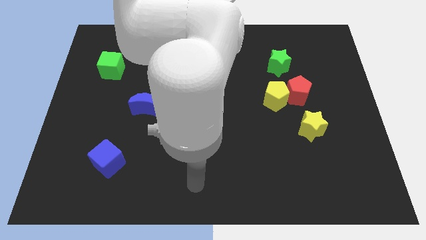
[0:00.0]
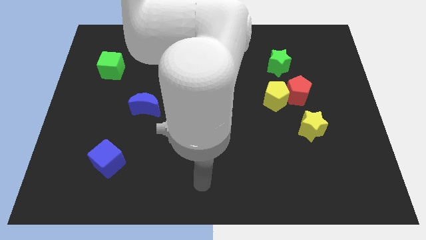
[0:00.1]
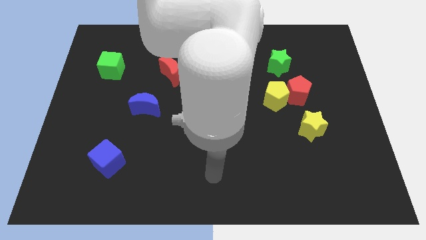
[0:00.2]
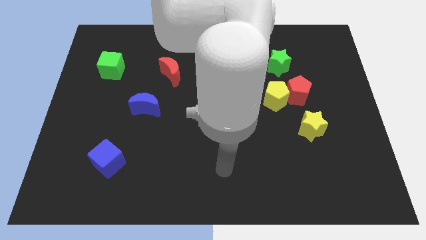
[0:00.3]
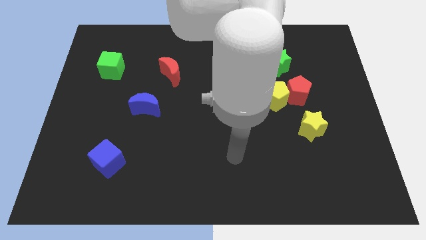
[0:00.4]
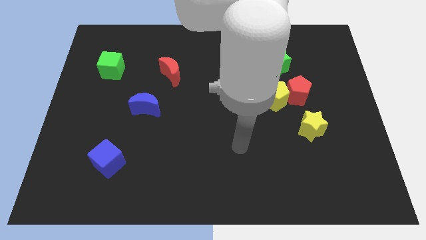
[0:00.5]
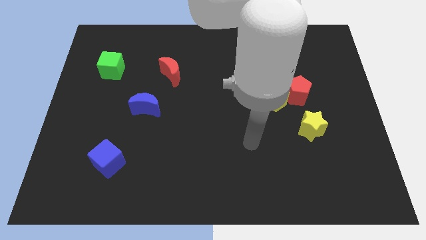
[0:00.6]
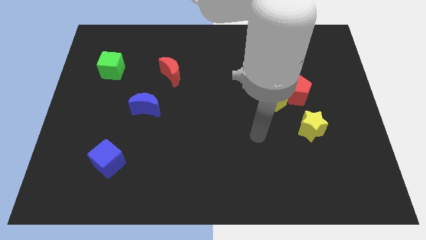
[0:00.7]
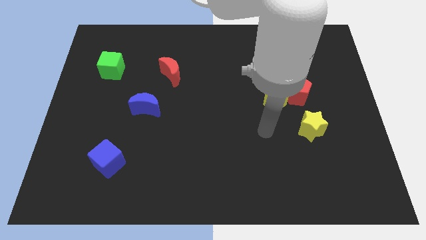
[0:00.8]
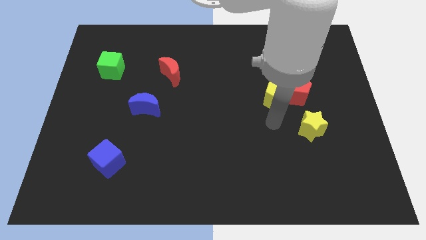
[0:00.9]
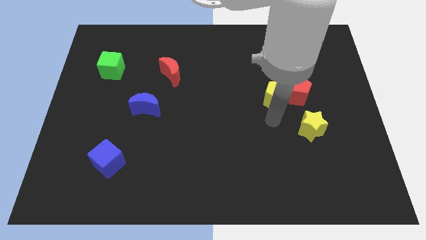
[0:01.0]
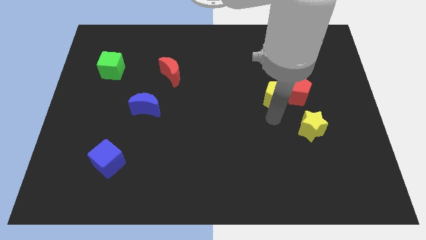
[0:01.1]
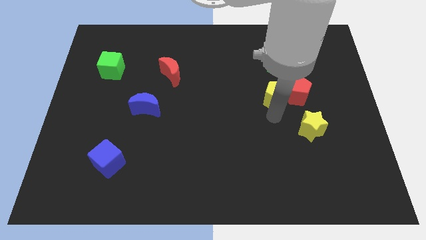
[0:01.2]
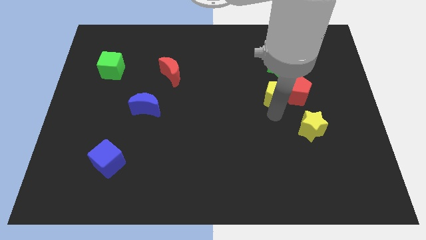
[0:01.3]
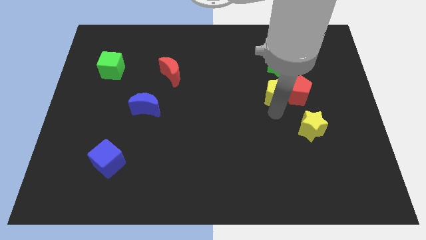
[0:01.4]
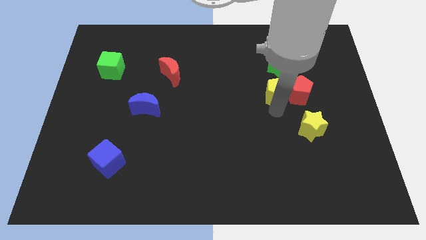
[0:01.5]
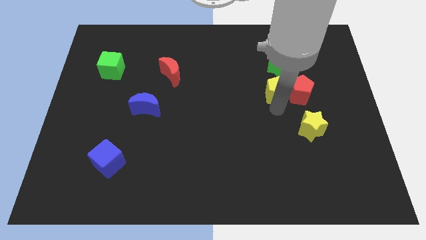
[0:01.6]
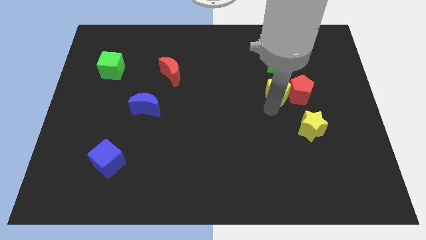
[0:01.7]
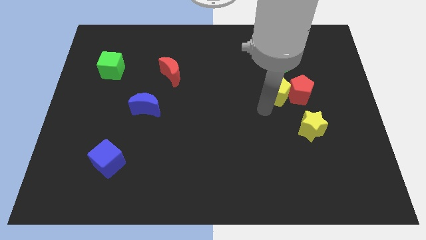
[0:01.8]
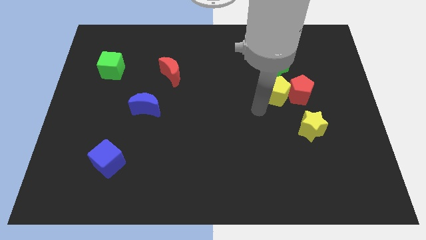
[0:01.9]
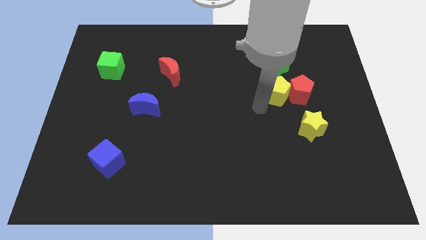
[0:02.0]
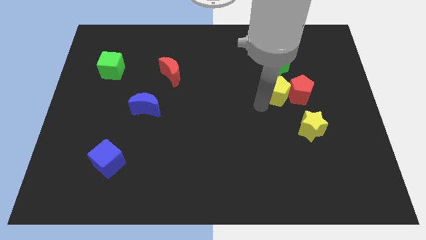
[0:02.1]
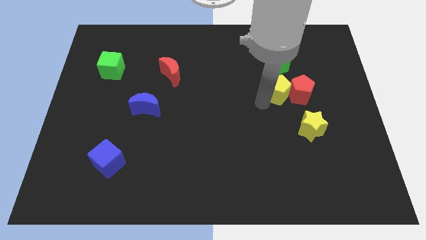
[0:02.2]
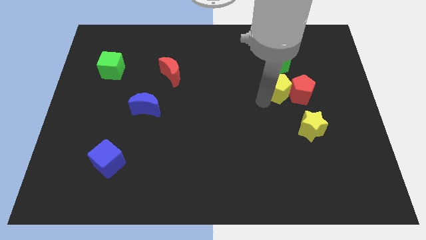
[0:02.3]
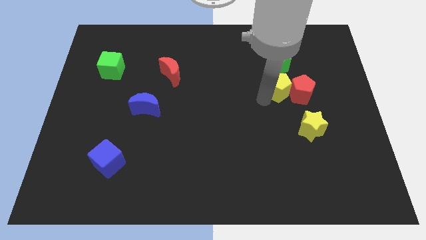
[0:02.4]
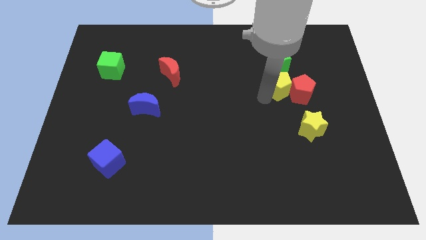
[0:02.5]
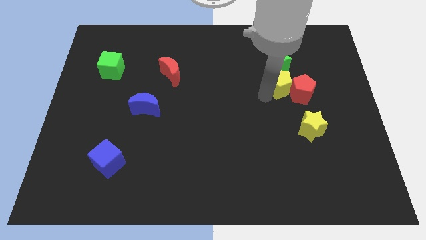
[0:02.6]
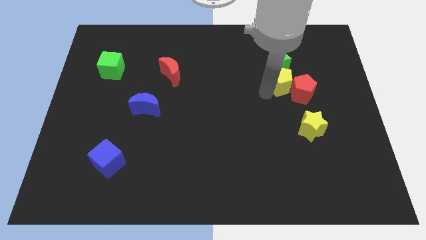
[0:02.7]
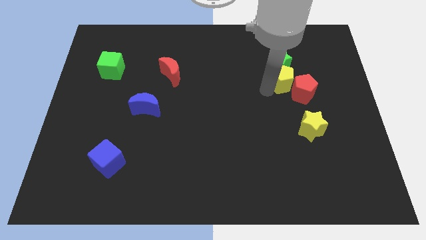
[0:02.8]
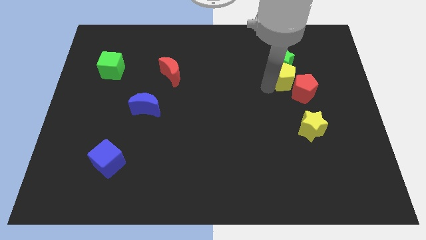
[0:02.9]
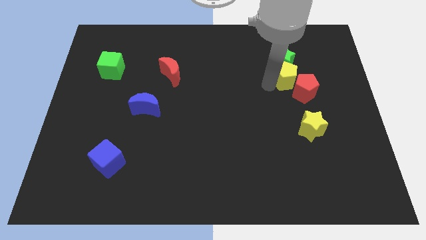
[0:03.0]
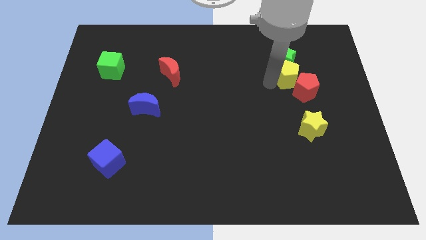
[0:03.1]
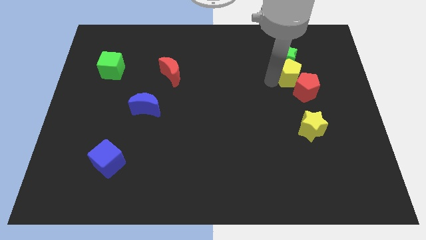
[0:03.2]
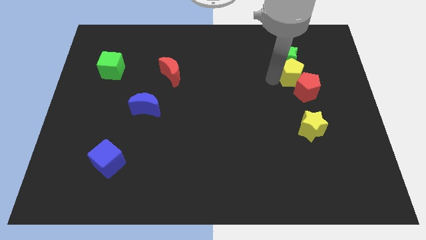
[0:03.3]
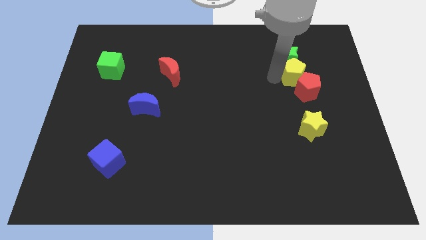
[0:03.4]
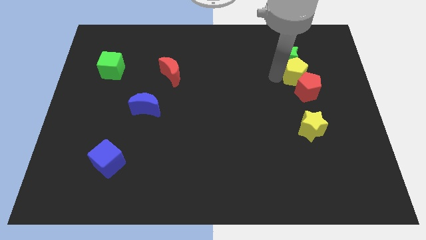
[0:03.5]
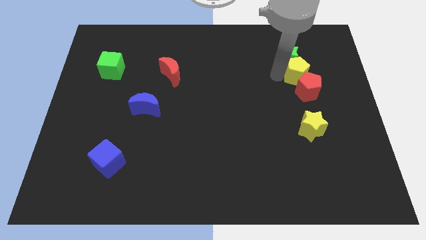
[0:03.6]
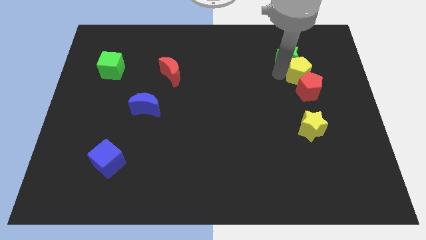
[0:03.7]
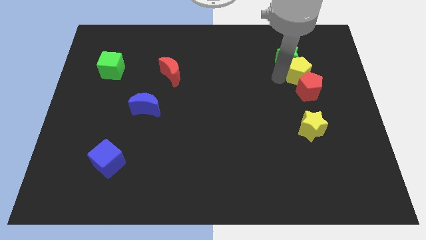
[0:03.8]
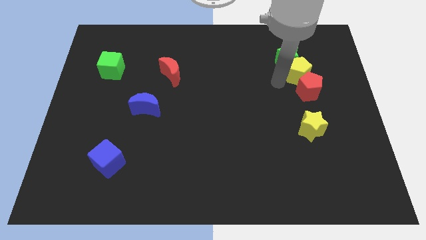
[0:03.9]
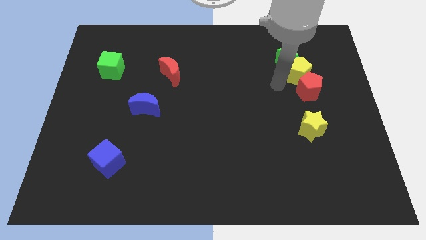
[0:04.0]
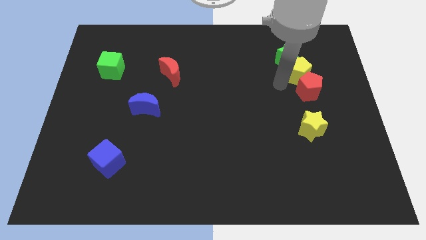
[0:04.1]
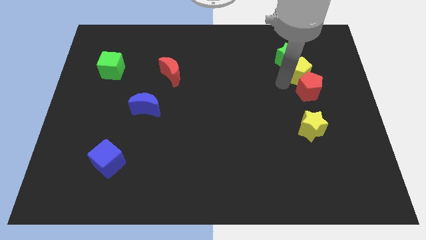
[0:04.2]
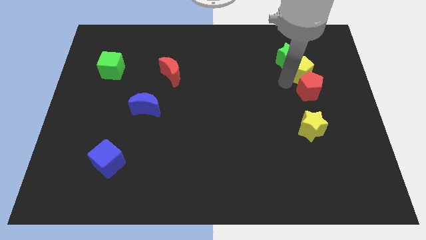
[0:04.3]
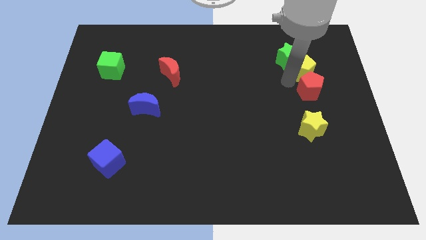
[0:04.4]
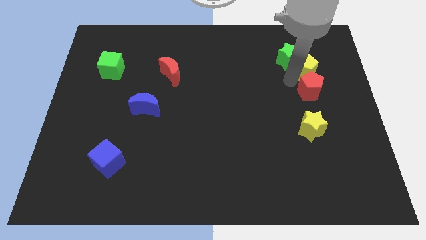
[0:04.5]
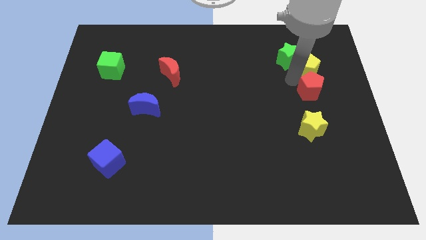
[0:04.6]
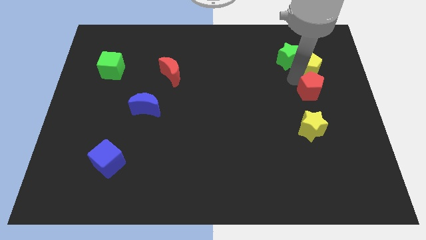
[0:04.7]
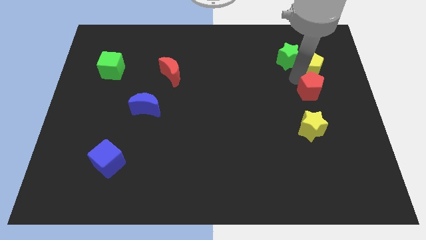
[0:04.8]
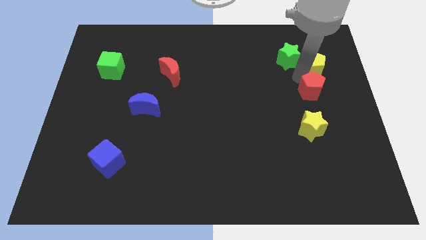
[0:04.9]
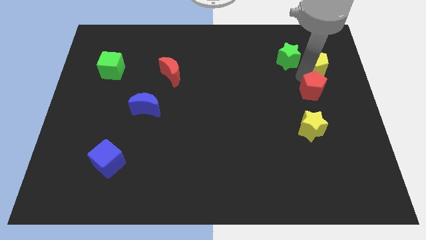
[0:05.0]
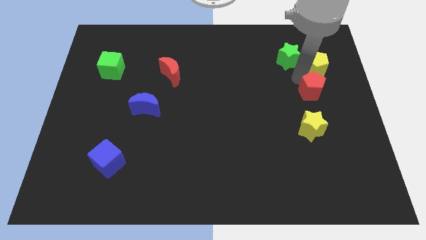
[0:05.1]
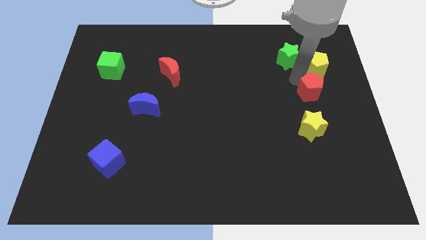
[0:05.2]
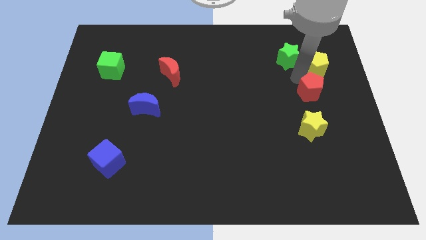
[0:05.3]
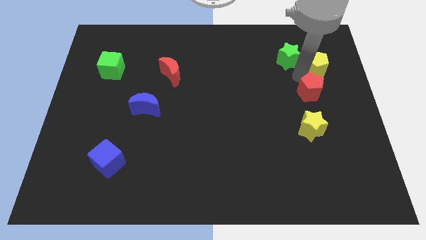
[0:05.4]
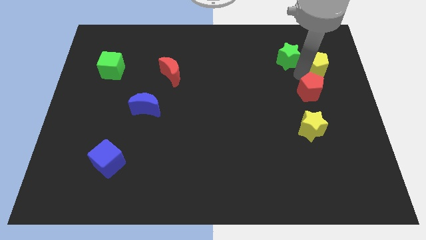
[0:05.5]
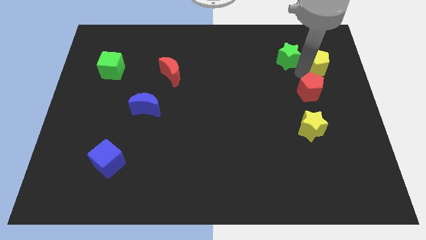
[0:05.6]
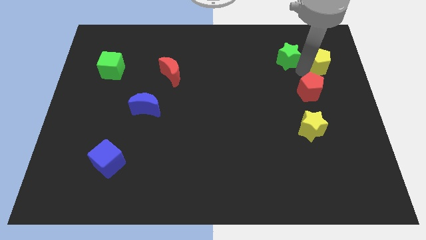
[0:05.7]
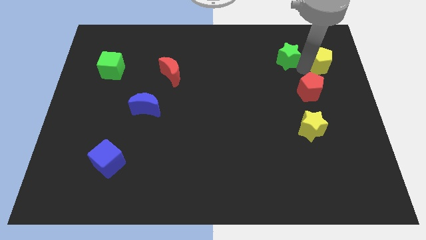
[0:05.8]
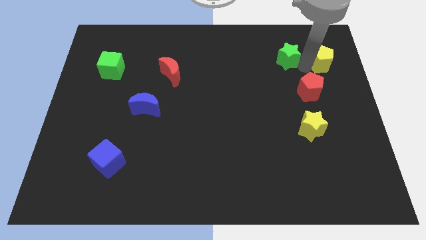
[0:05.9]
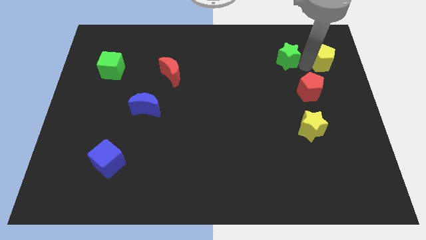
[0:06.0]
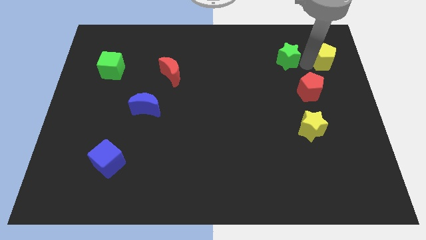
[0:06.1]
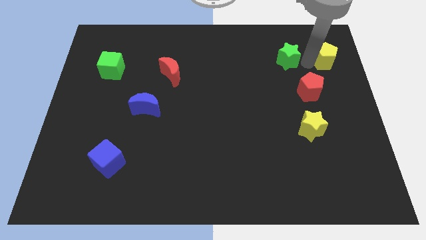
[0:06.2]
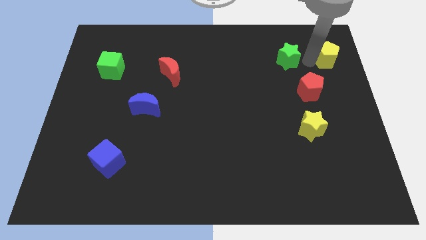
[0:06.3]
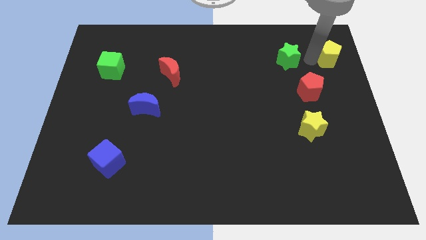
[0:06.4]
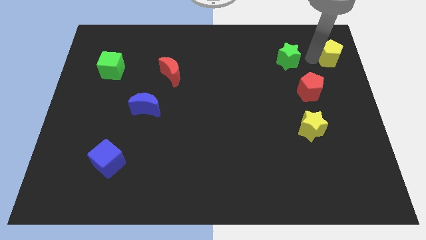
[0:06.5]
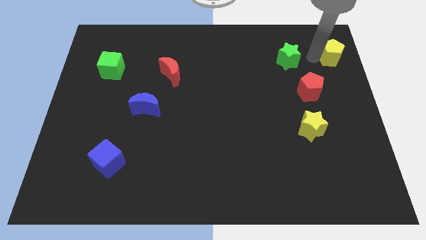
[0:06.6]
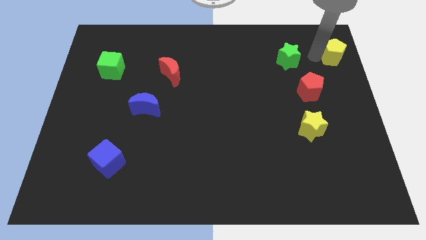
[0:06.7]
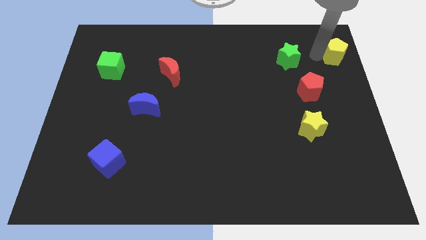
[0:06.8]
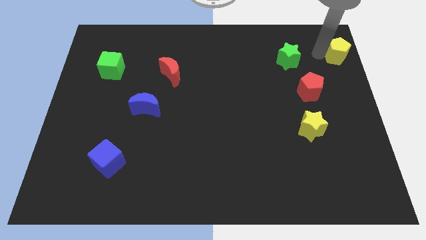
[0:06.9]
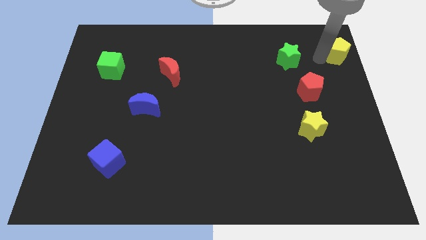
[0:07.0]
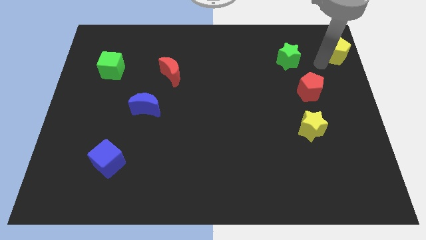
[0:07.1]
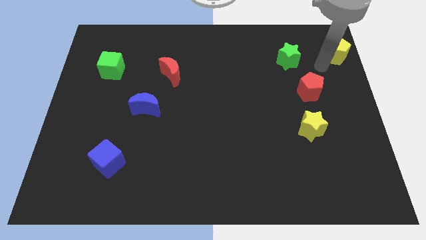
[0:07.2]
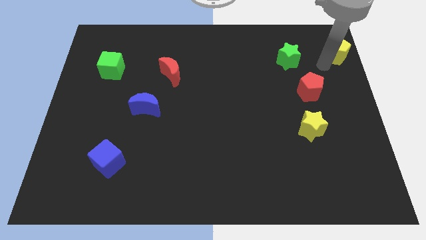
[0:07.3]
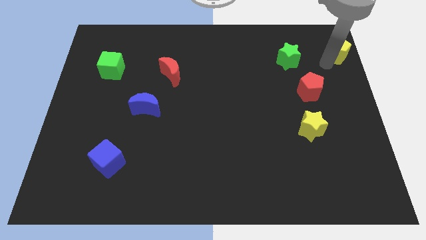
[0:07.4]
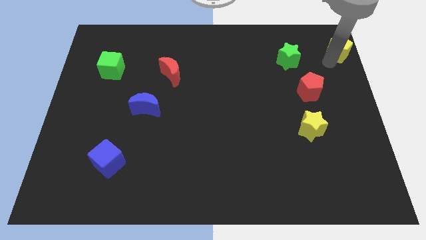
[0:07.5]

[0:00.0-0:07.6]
move the yellow pentagon to the upper right corner
